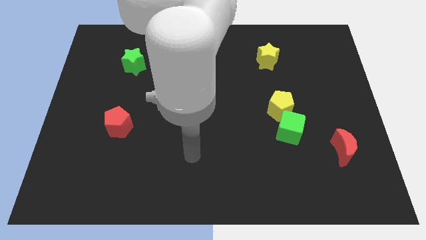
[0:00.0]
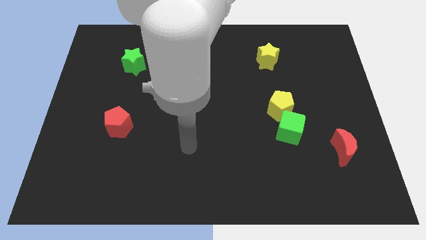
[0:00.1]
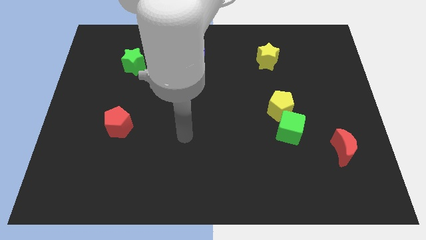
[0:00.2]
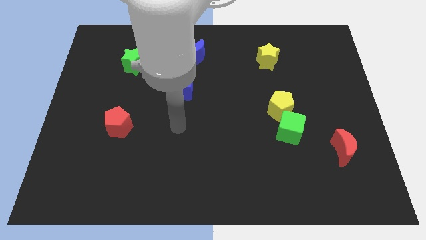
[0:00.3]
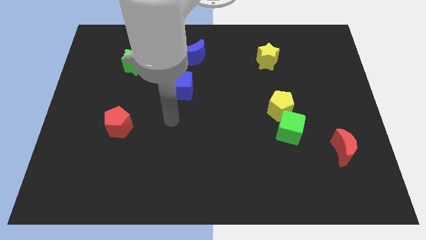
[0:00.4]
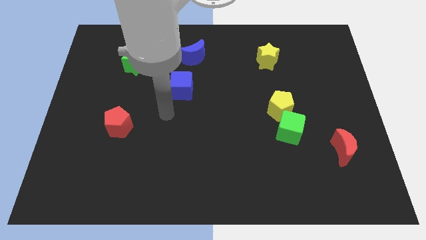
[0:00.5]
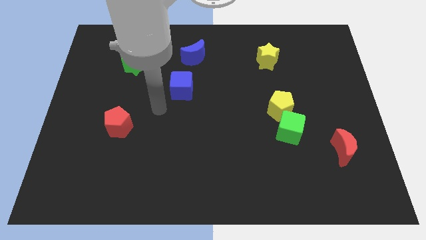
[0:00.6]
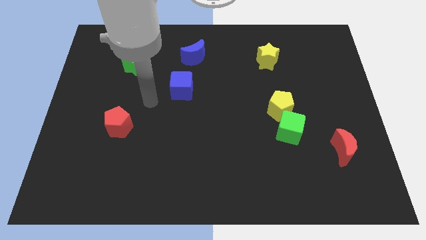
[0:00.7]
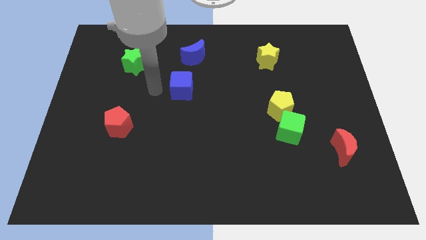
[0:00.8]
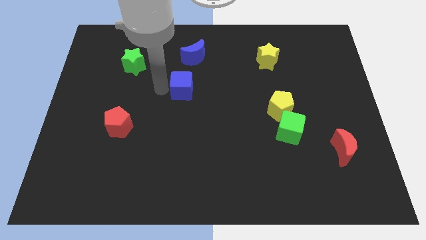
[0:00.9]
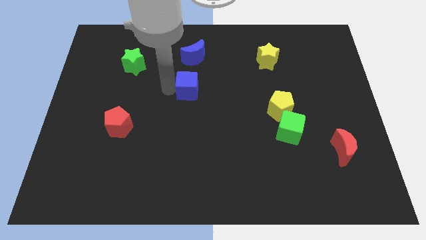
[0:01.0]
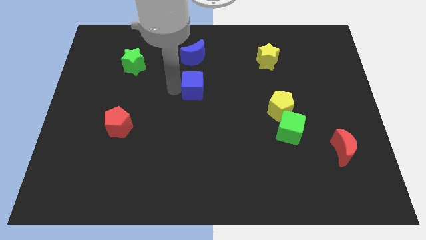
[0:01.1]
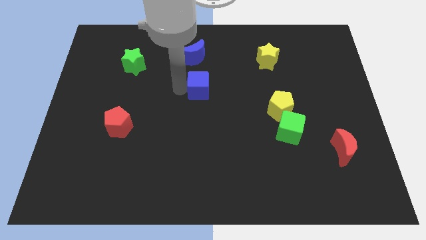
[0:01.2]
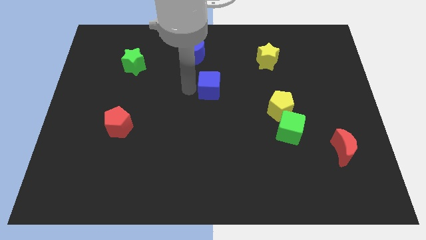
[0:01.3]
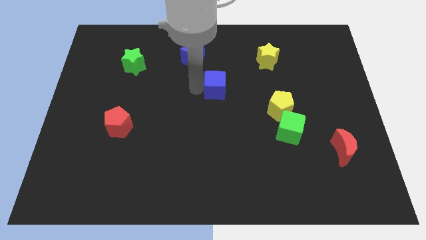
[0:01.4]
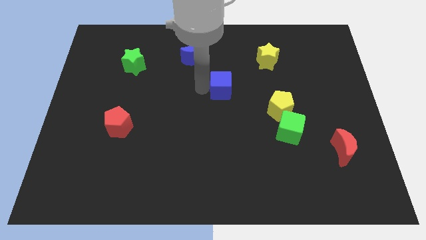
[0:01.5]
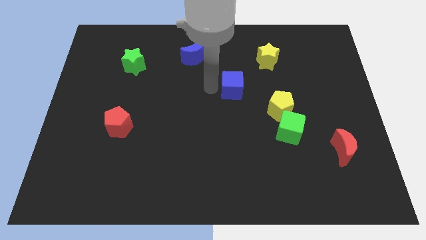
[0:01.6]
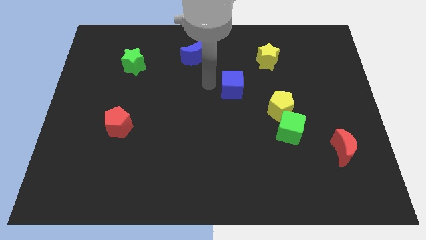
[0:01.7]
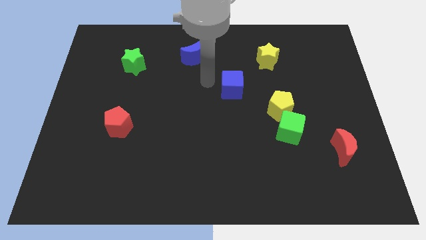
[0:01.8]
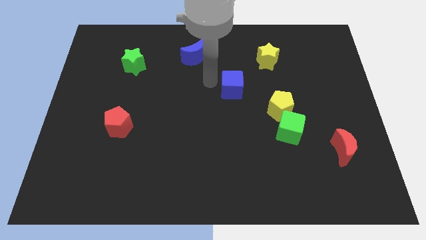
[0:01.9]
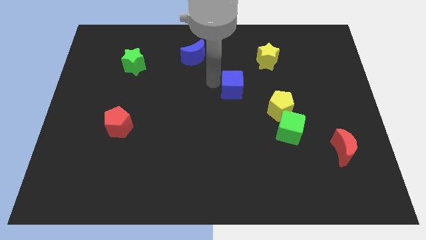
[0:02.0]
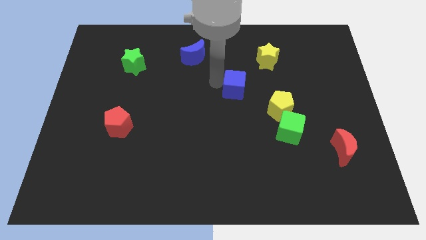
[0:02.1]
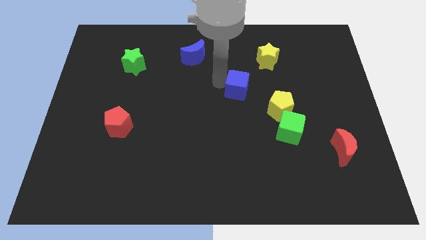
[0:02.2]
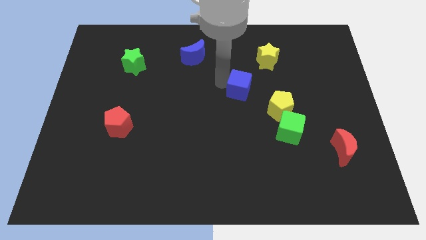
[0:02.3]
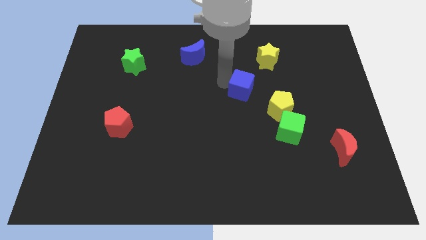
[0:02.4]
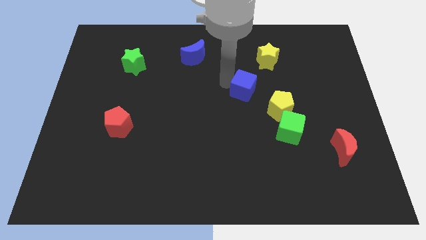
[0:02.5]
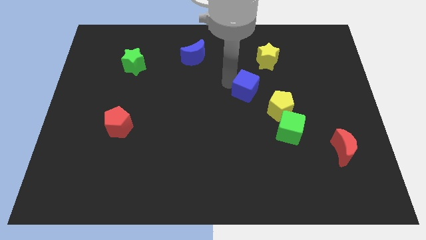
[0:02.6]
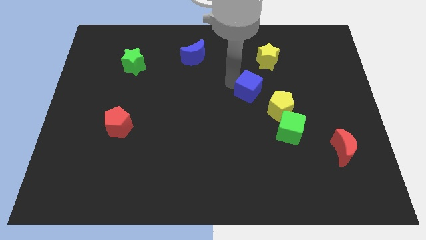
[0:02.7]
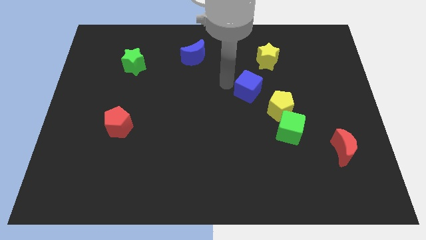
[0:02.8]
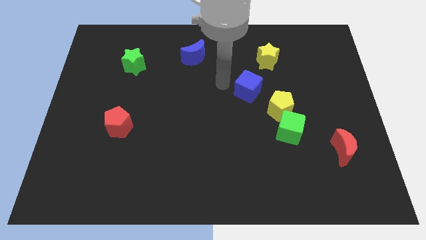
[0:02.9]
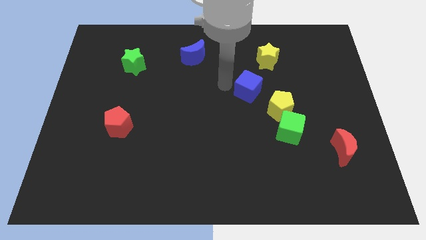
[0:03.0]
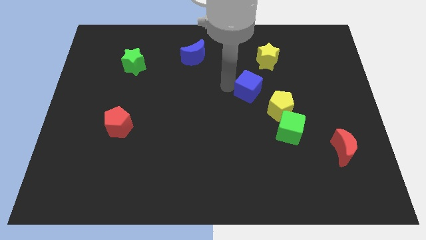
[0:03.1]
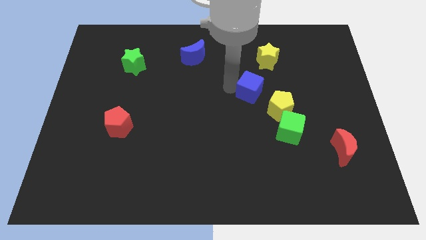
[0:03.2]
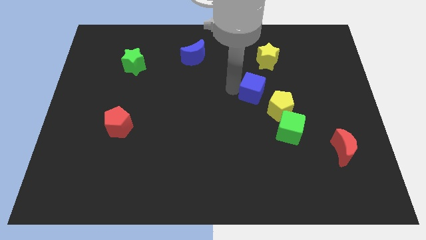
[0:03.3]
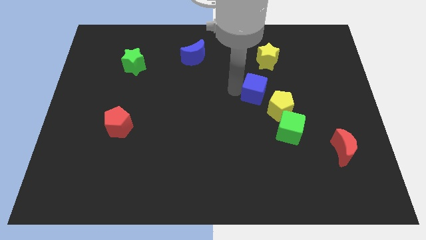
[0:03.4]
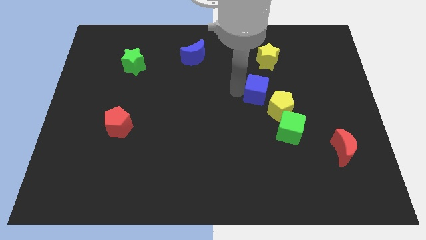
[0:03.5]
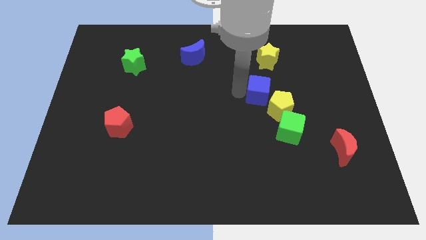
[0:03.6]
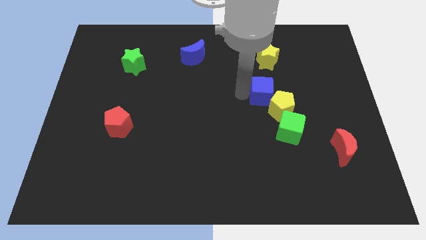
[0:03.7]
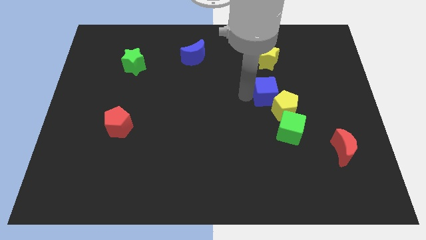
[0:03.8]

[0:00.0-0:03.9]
push the blue cube right

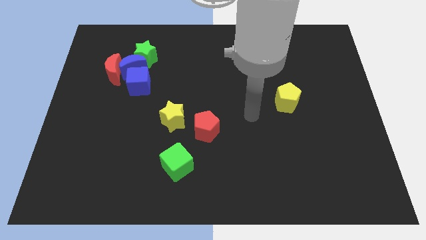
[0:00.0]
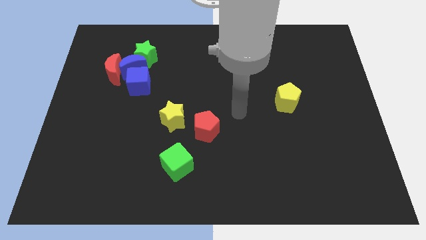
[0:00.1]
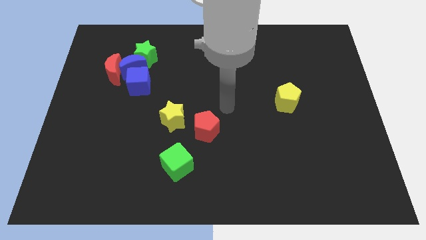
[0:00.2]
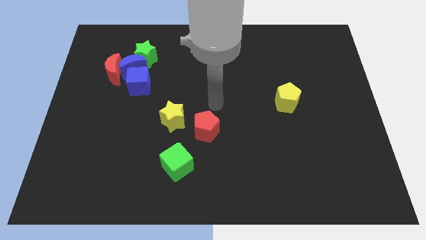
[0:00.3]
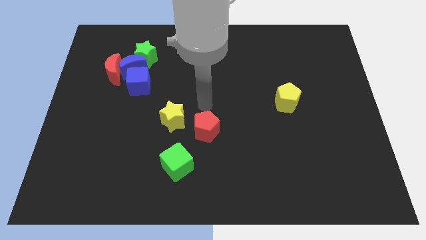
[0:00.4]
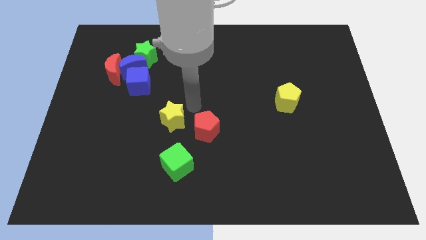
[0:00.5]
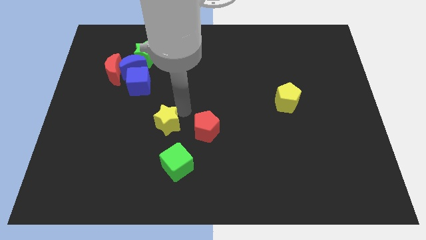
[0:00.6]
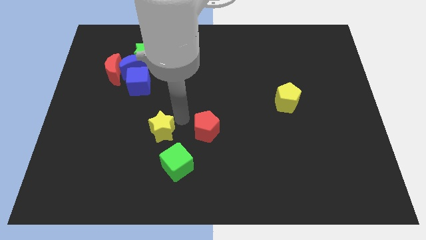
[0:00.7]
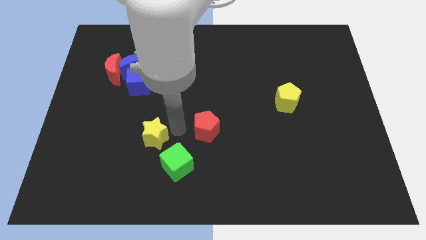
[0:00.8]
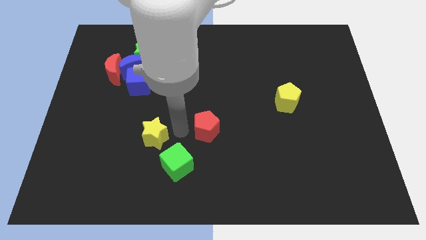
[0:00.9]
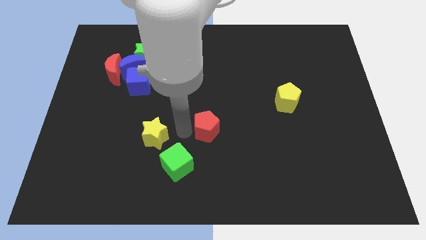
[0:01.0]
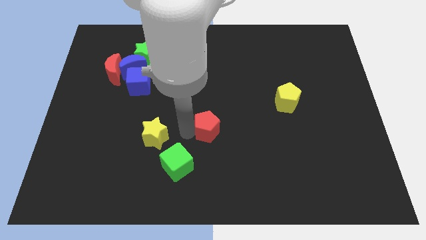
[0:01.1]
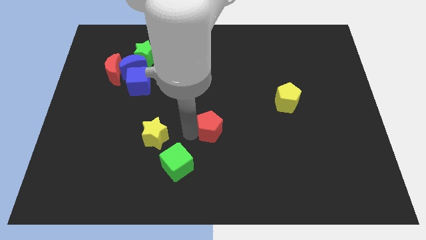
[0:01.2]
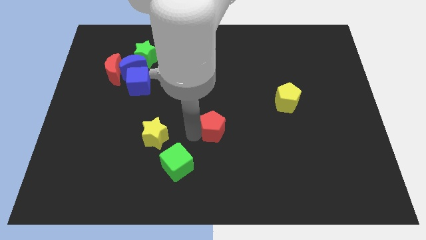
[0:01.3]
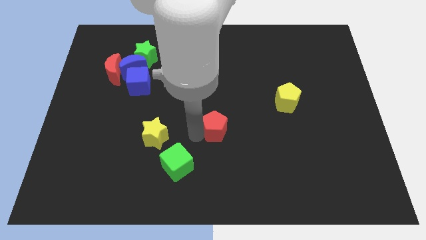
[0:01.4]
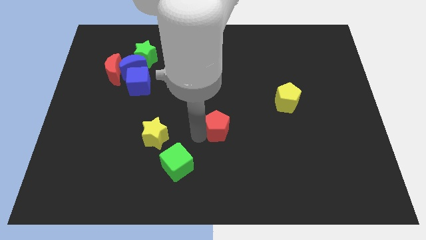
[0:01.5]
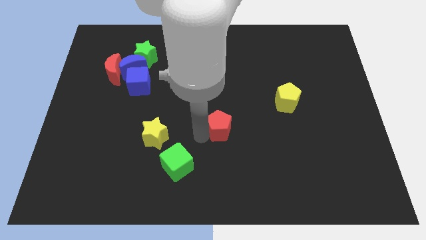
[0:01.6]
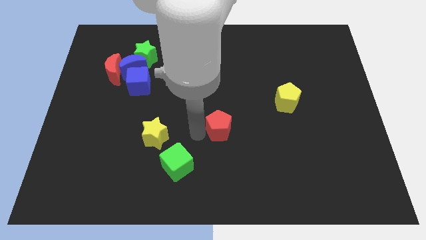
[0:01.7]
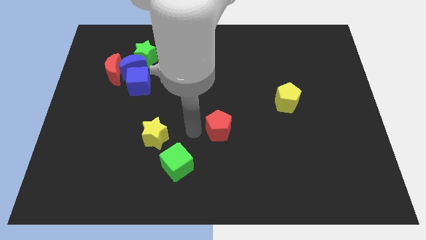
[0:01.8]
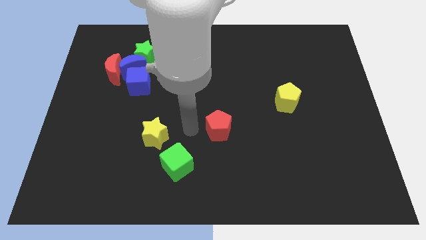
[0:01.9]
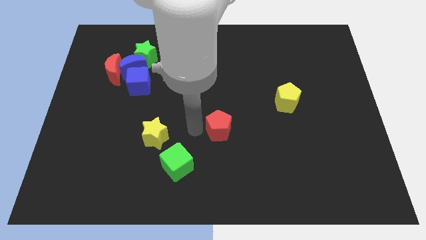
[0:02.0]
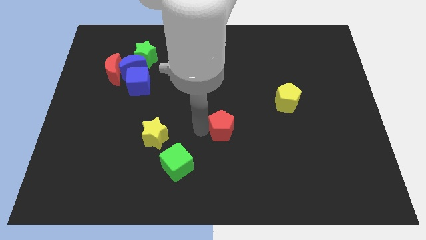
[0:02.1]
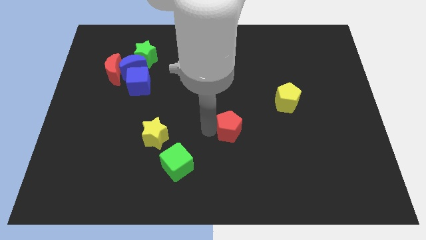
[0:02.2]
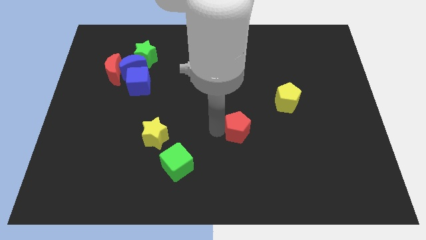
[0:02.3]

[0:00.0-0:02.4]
slide the red pentagon slightly to the right

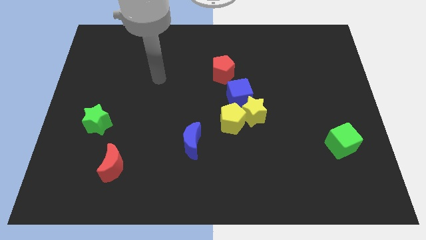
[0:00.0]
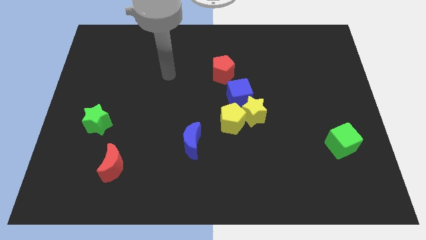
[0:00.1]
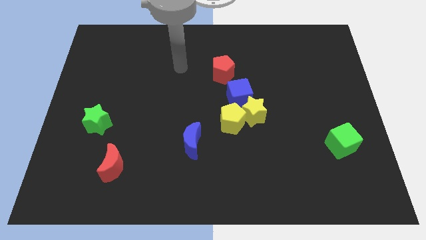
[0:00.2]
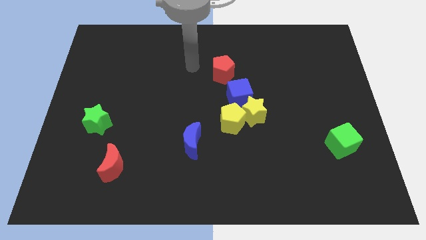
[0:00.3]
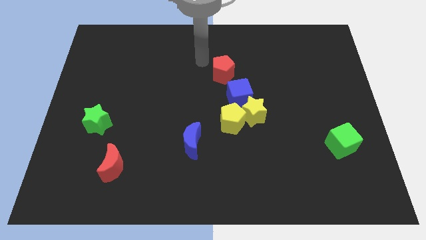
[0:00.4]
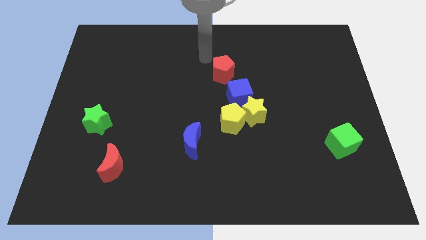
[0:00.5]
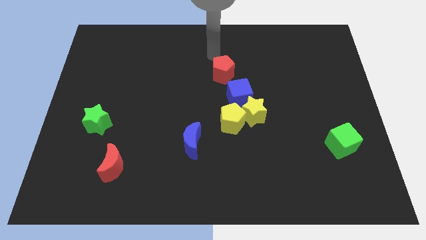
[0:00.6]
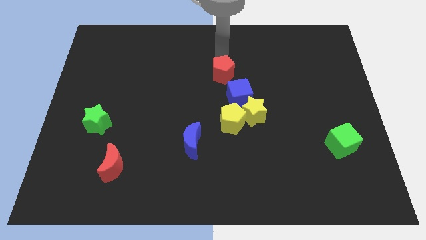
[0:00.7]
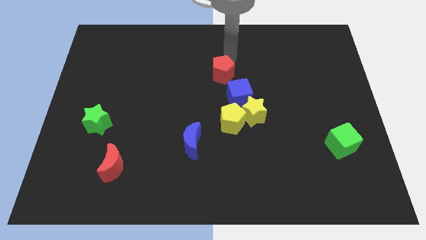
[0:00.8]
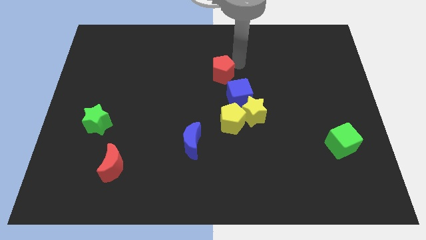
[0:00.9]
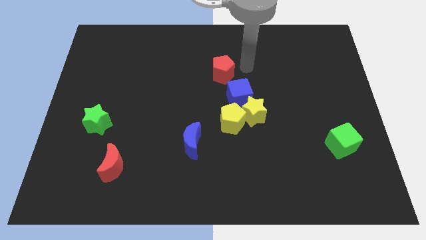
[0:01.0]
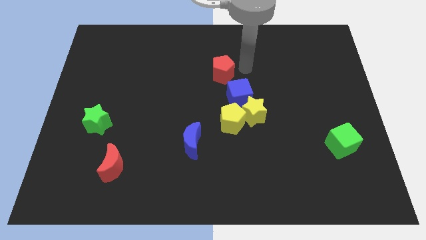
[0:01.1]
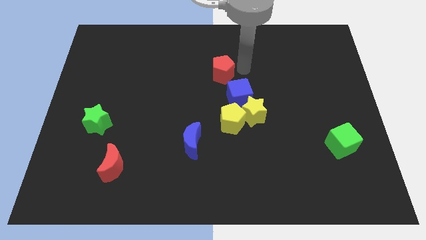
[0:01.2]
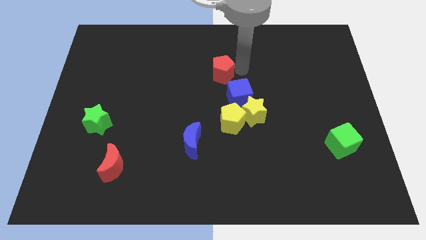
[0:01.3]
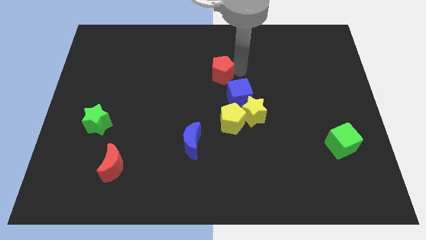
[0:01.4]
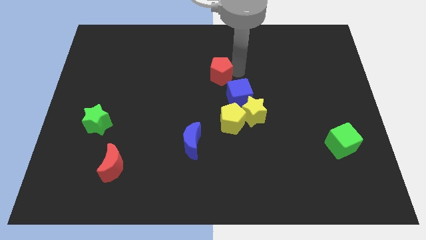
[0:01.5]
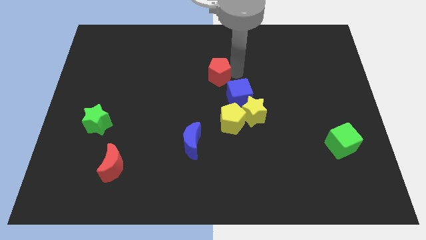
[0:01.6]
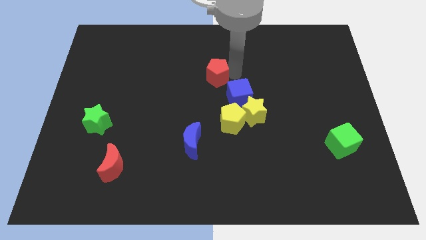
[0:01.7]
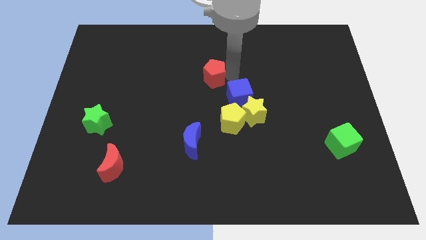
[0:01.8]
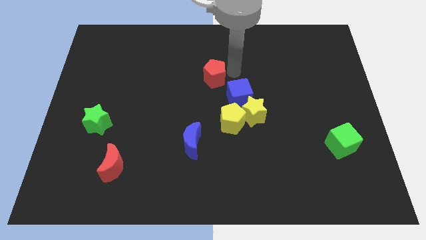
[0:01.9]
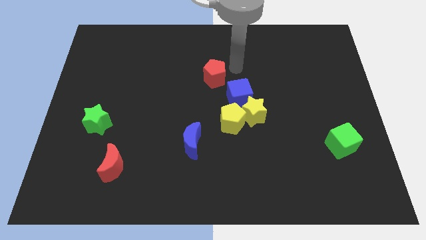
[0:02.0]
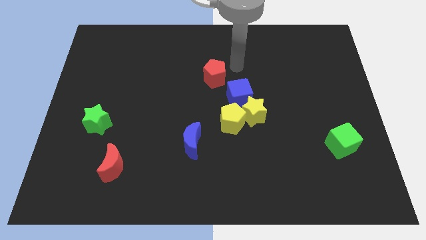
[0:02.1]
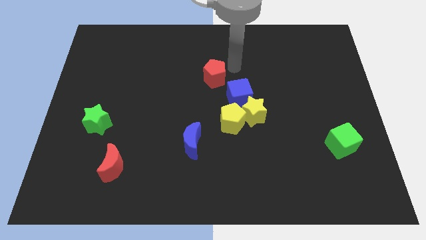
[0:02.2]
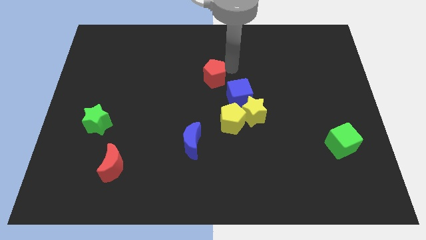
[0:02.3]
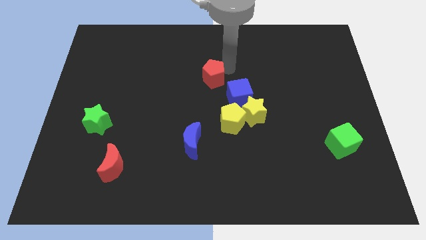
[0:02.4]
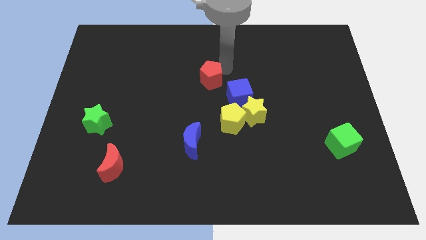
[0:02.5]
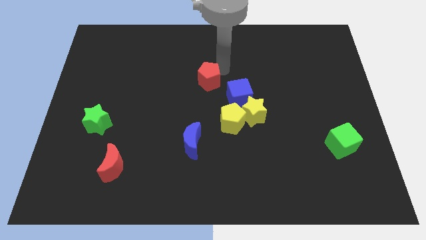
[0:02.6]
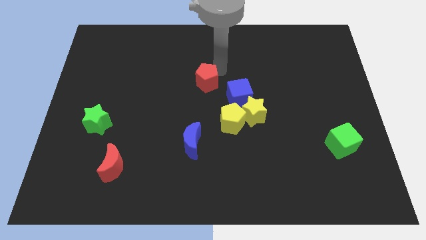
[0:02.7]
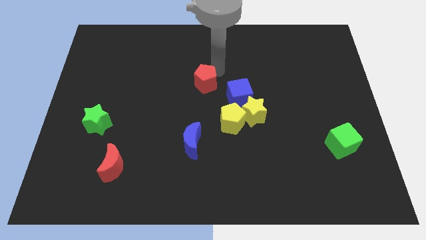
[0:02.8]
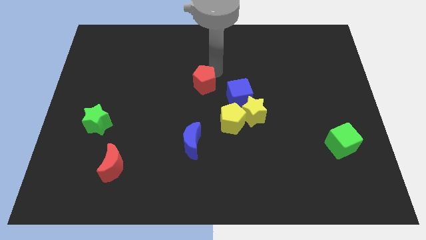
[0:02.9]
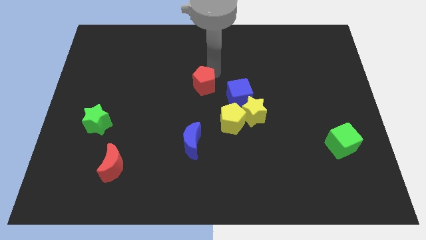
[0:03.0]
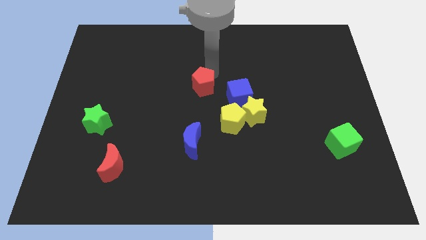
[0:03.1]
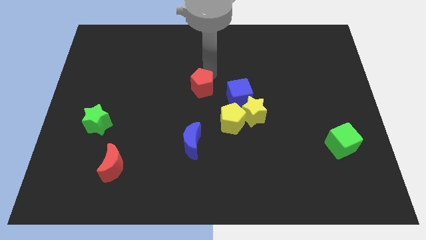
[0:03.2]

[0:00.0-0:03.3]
slightly slide the red pentagon downwards and to the left
